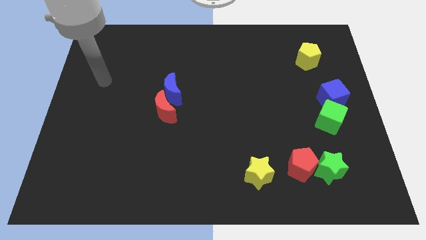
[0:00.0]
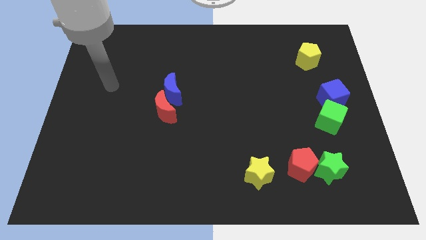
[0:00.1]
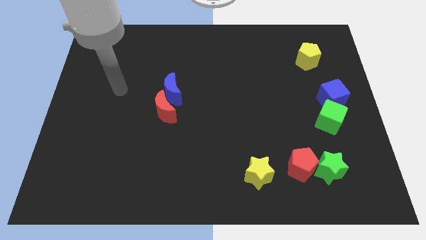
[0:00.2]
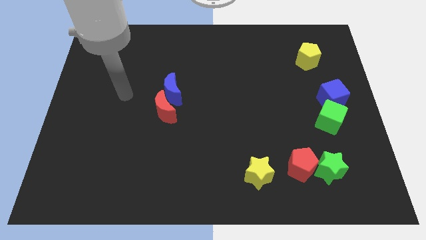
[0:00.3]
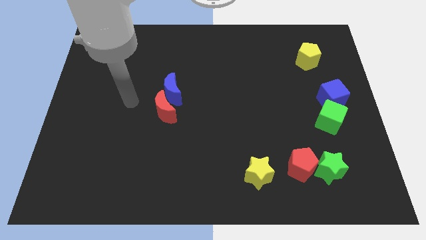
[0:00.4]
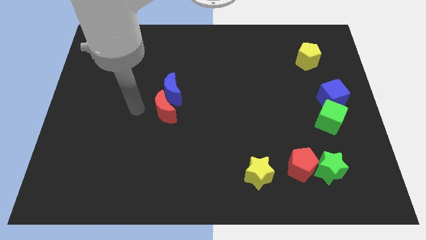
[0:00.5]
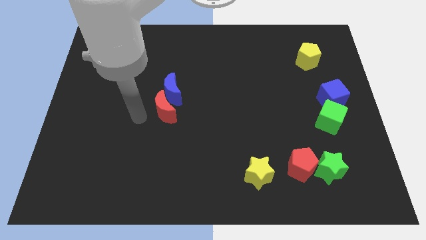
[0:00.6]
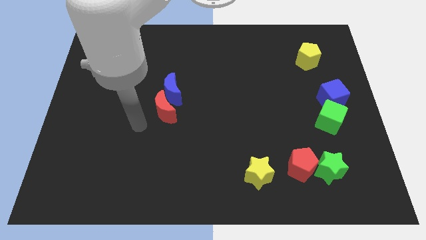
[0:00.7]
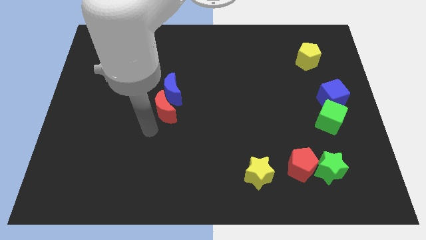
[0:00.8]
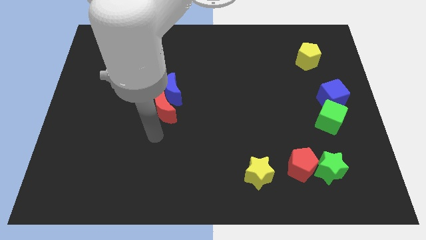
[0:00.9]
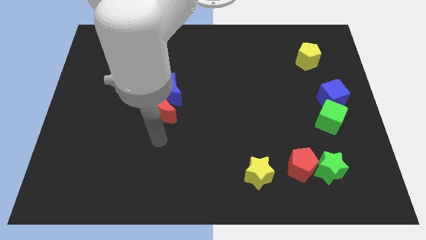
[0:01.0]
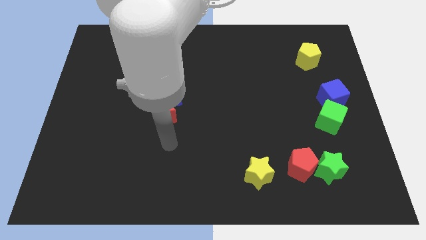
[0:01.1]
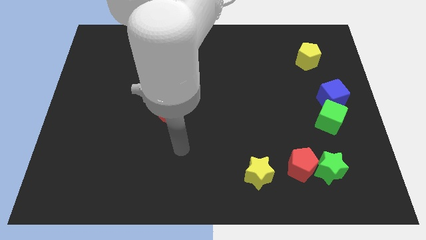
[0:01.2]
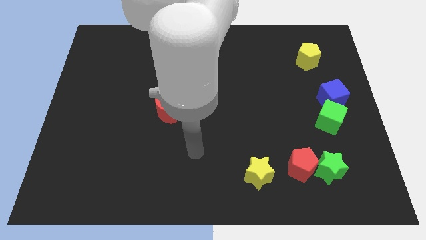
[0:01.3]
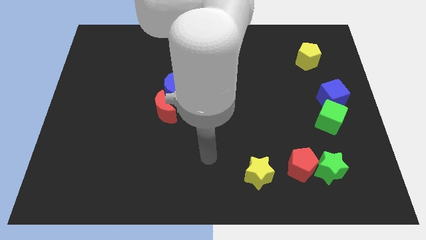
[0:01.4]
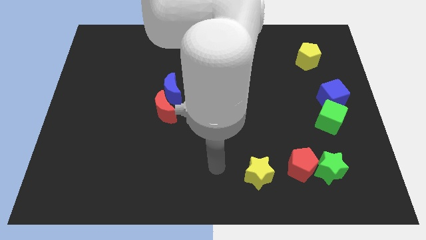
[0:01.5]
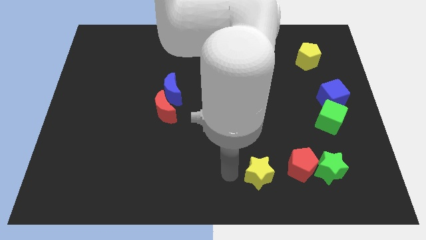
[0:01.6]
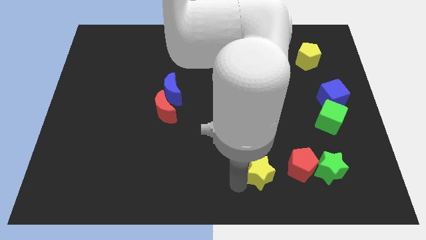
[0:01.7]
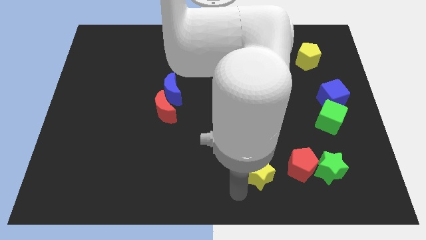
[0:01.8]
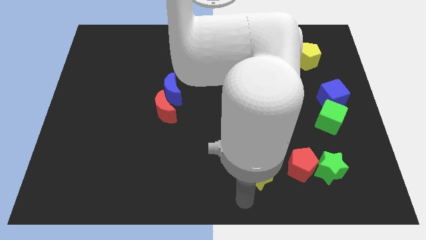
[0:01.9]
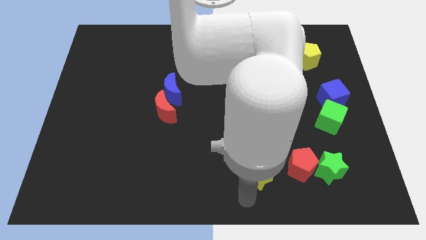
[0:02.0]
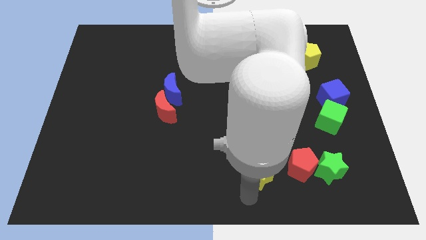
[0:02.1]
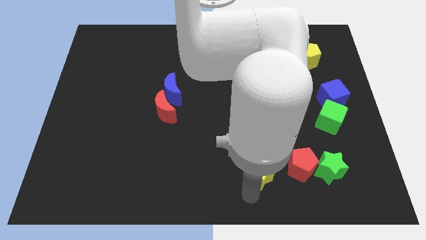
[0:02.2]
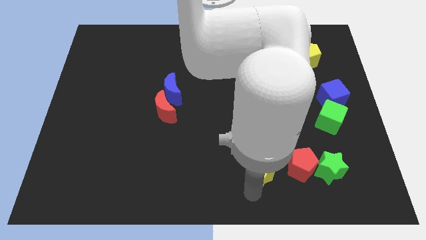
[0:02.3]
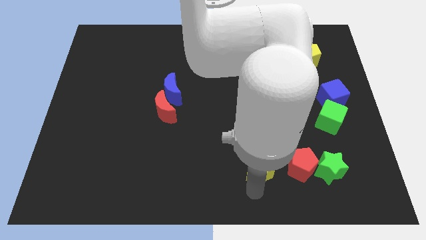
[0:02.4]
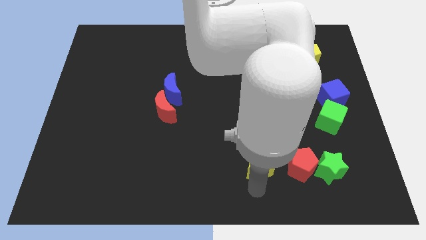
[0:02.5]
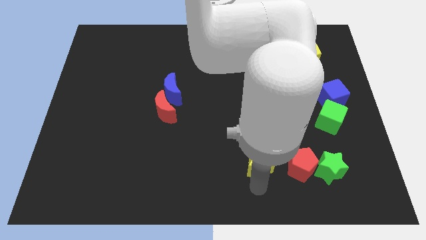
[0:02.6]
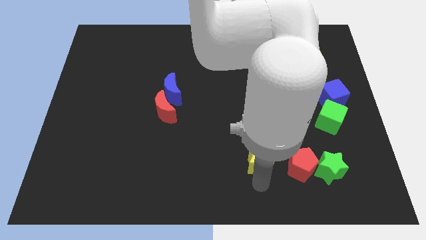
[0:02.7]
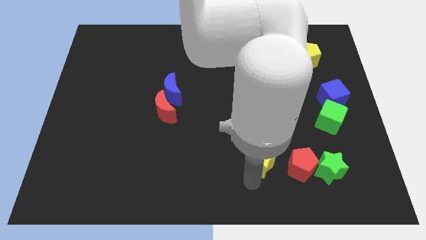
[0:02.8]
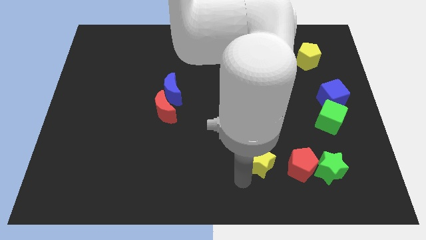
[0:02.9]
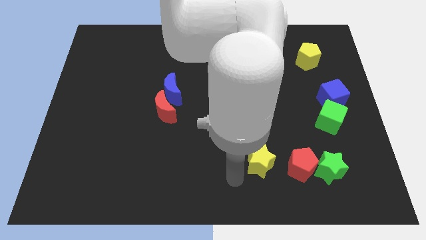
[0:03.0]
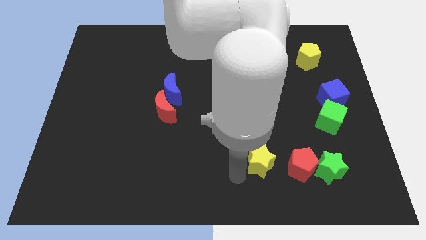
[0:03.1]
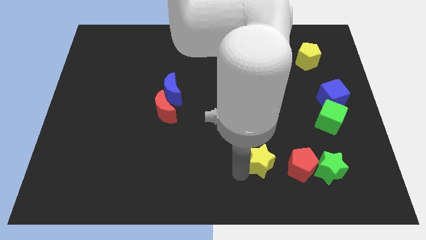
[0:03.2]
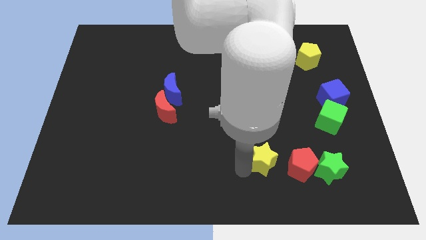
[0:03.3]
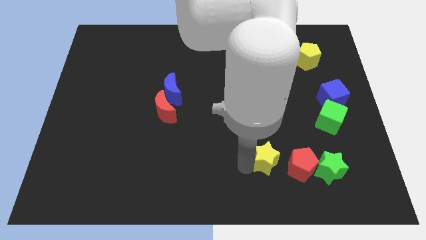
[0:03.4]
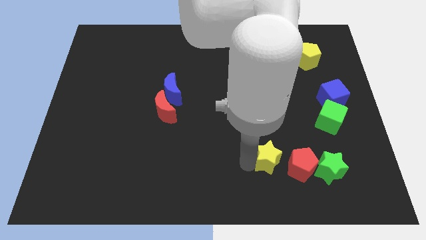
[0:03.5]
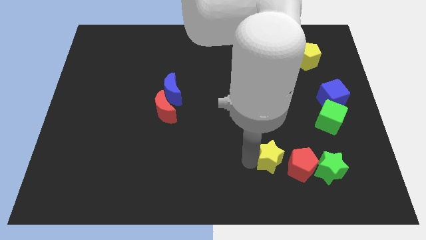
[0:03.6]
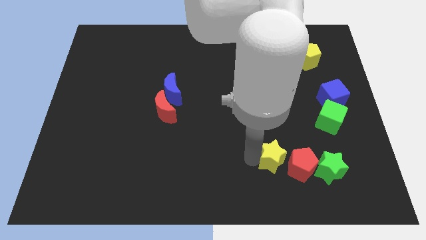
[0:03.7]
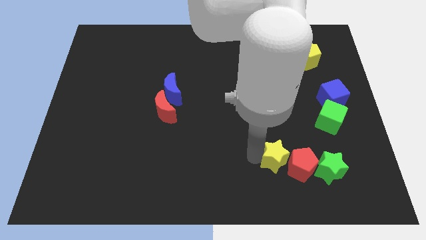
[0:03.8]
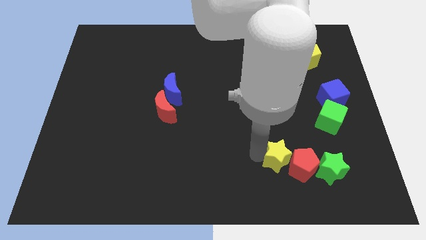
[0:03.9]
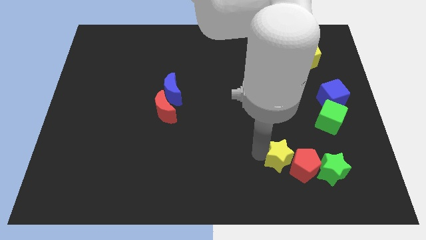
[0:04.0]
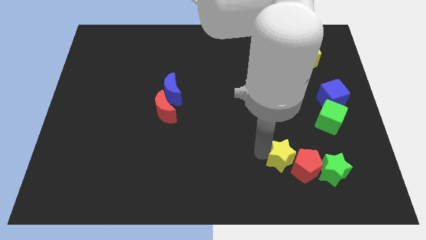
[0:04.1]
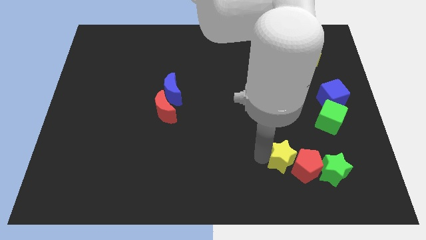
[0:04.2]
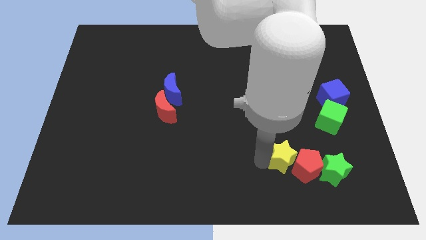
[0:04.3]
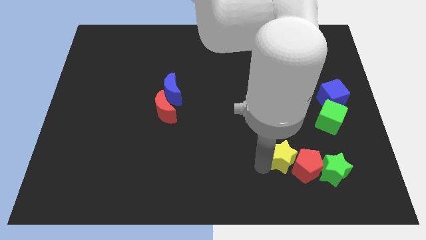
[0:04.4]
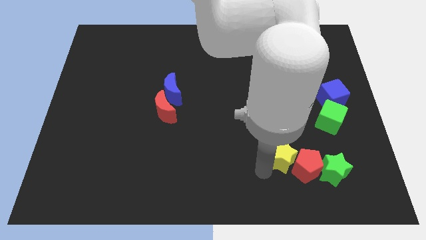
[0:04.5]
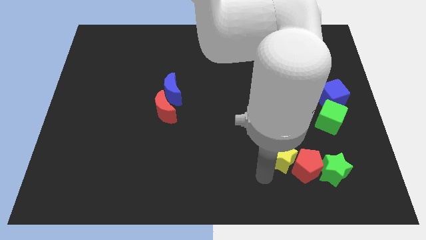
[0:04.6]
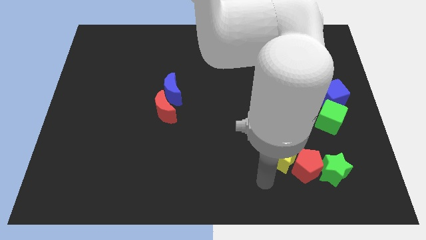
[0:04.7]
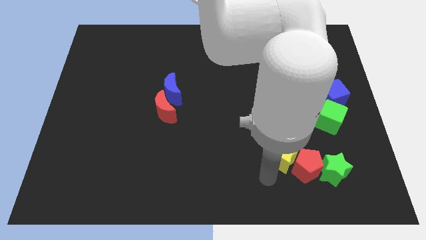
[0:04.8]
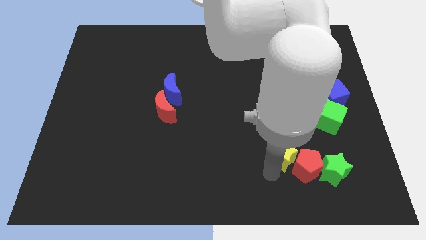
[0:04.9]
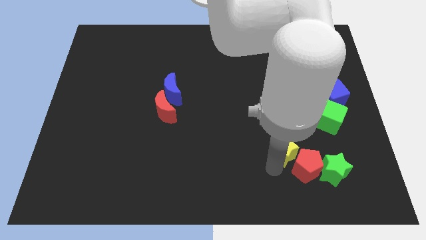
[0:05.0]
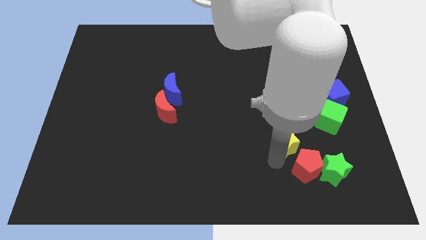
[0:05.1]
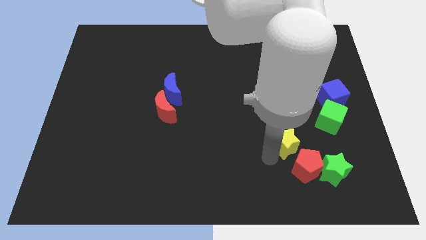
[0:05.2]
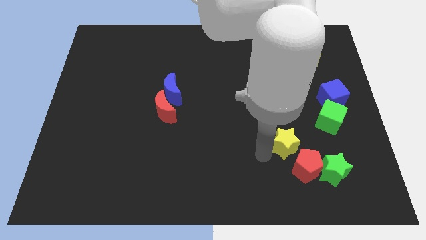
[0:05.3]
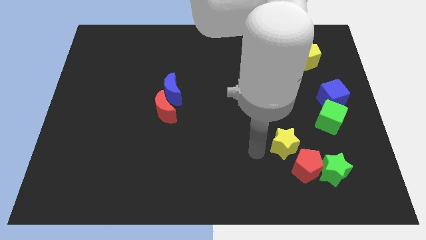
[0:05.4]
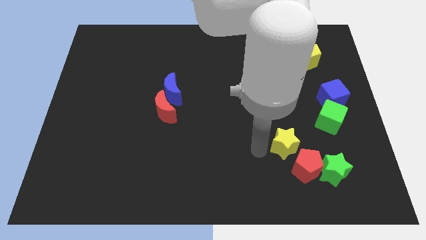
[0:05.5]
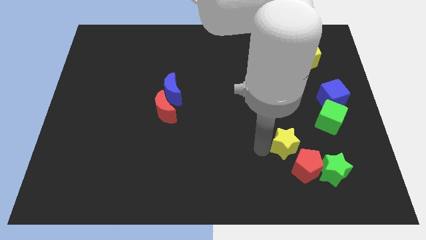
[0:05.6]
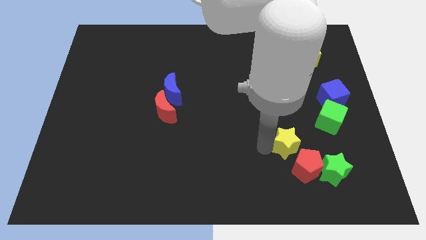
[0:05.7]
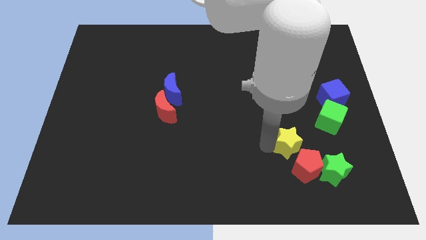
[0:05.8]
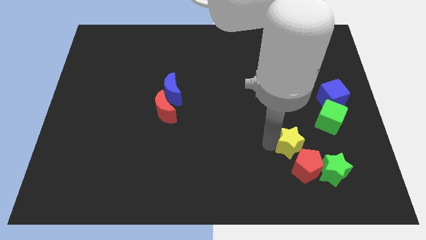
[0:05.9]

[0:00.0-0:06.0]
slide the yellow star diagonally down and to the left of the green cube

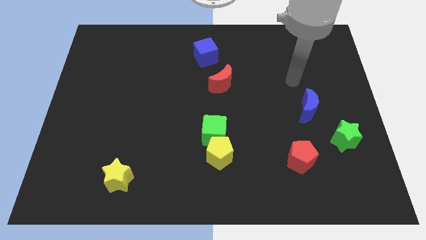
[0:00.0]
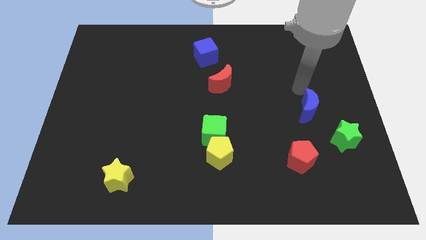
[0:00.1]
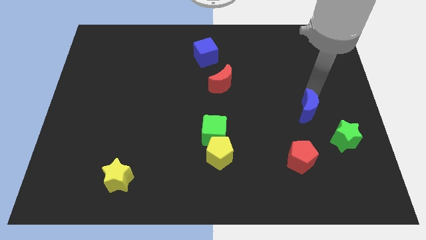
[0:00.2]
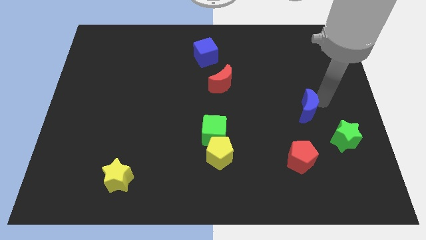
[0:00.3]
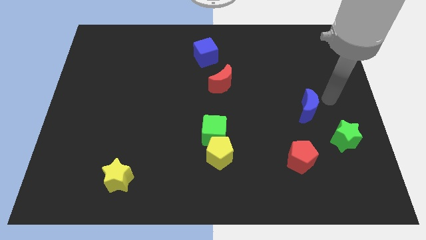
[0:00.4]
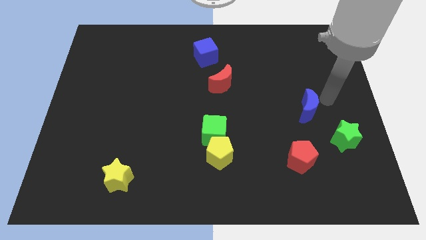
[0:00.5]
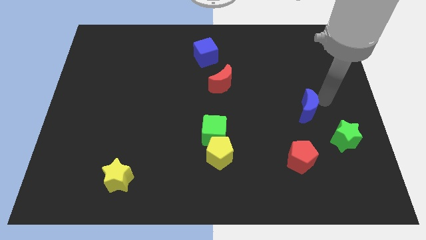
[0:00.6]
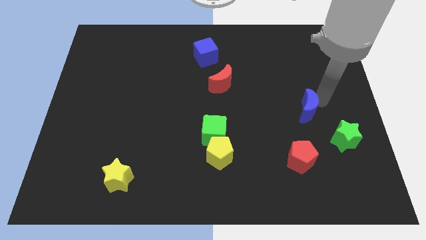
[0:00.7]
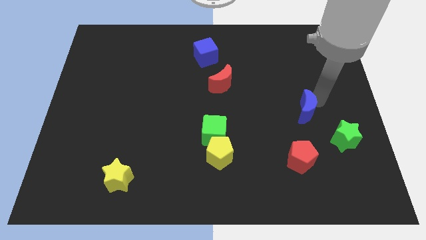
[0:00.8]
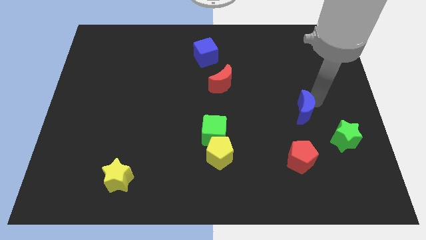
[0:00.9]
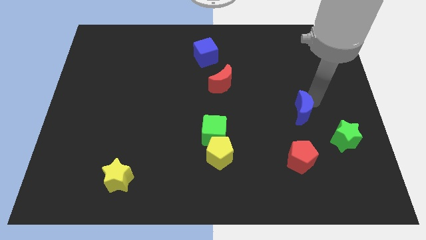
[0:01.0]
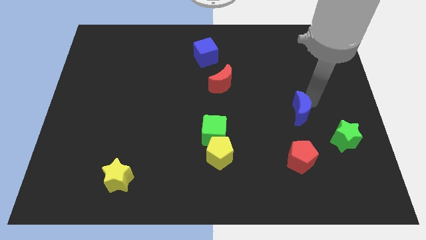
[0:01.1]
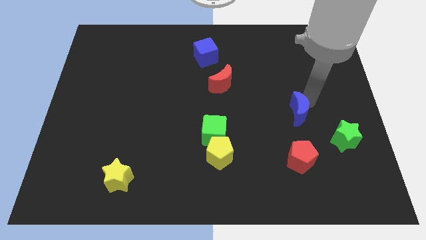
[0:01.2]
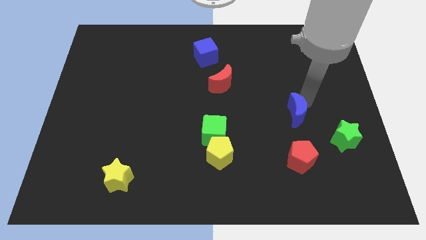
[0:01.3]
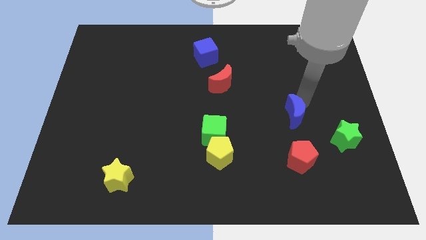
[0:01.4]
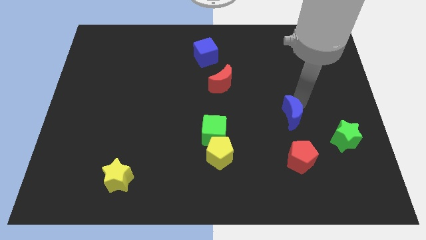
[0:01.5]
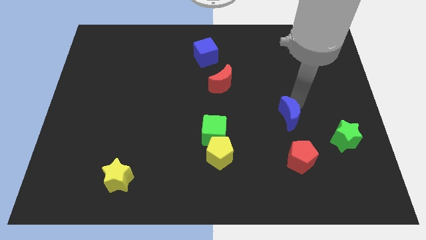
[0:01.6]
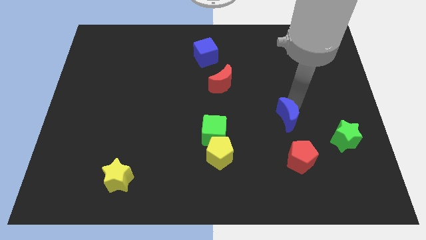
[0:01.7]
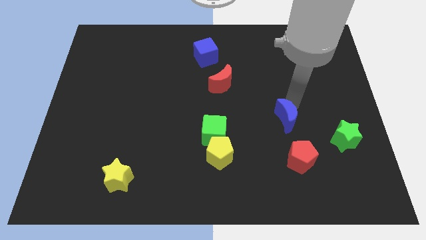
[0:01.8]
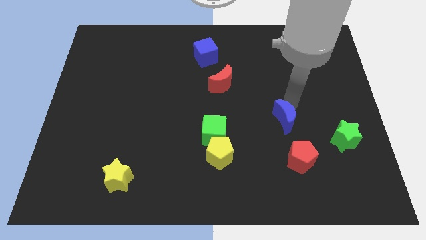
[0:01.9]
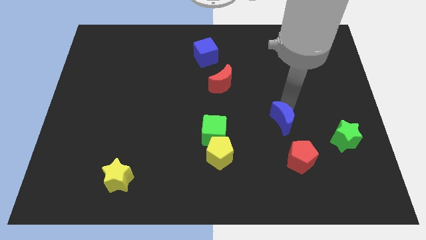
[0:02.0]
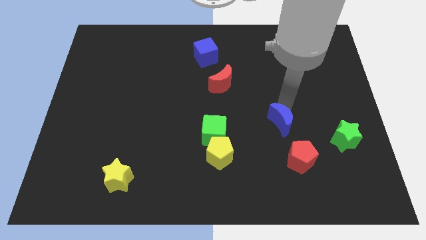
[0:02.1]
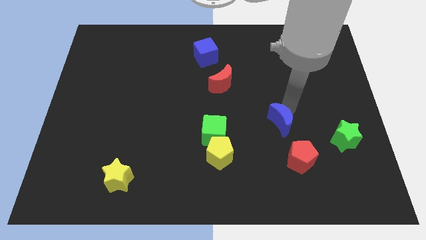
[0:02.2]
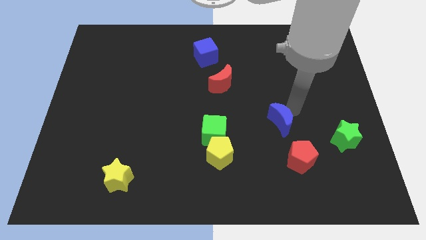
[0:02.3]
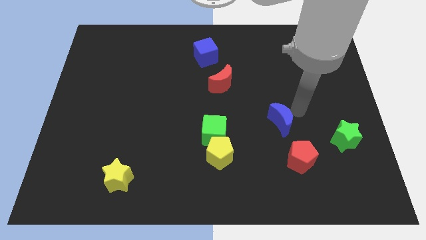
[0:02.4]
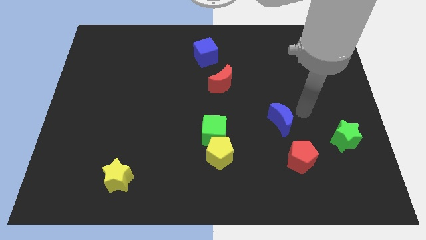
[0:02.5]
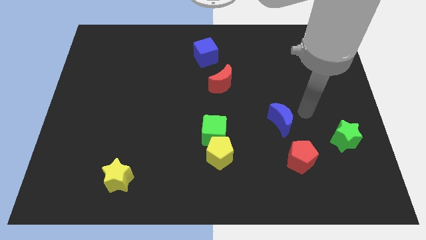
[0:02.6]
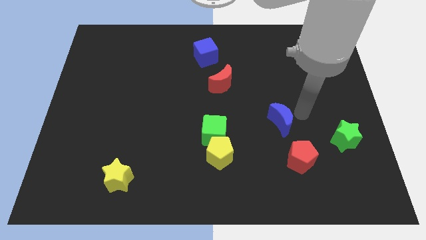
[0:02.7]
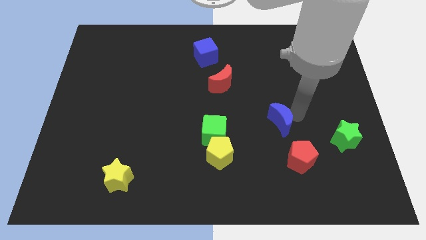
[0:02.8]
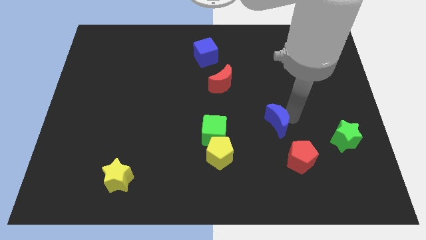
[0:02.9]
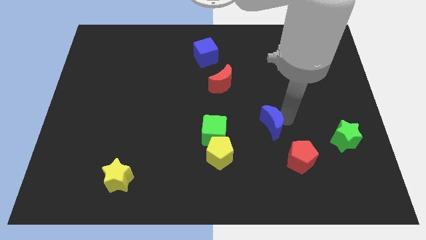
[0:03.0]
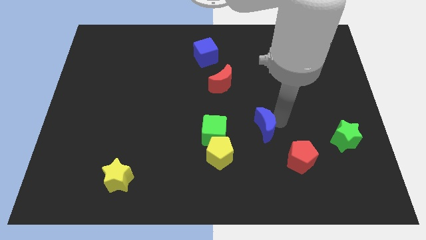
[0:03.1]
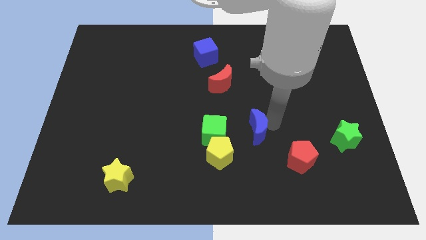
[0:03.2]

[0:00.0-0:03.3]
put the blue moon to the top right side of the yellow pentagon
